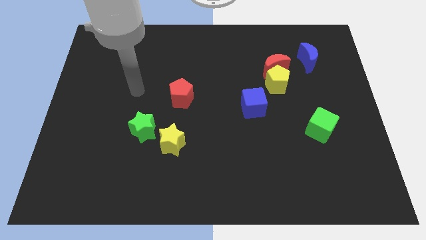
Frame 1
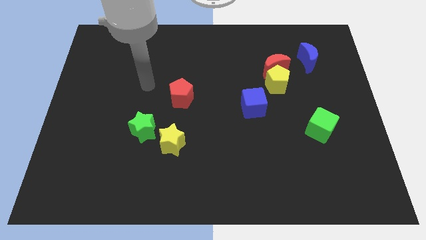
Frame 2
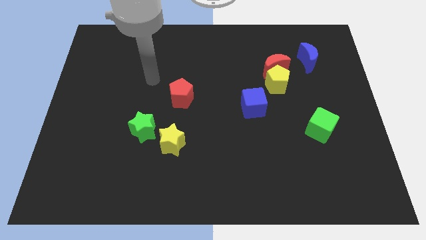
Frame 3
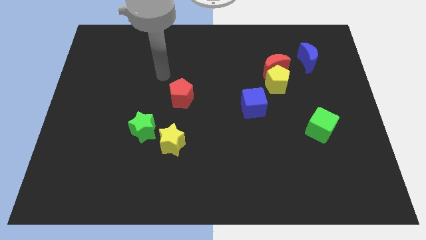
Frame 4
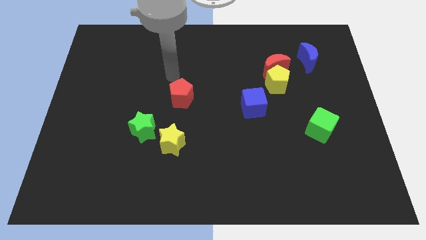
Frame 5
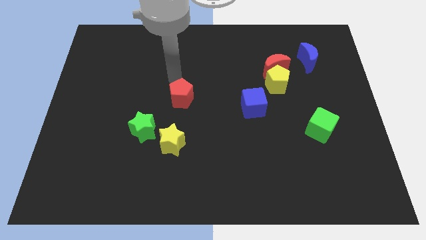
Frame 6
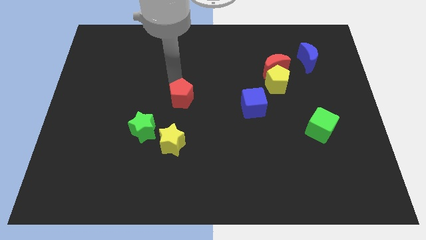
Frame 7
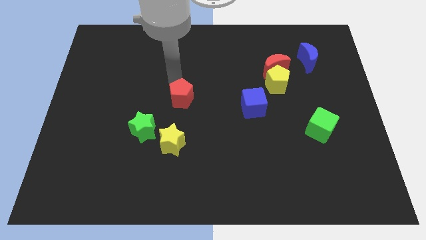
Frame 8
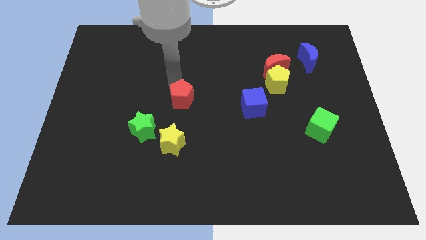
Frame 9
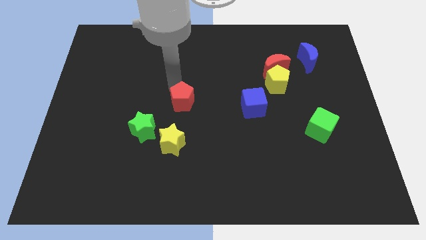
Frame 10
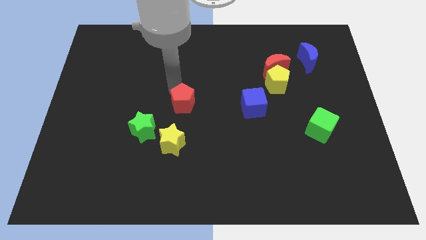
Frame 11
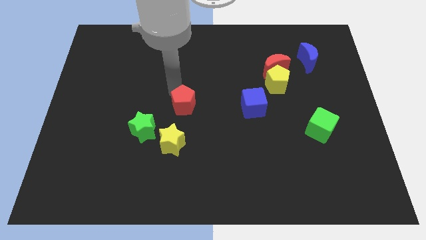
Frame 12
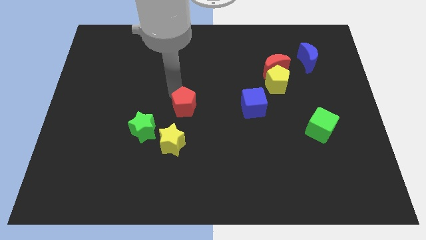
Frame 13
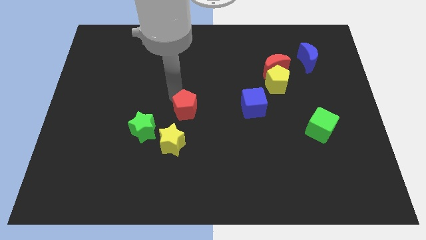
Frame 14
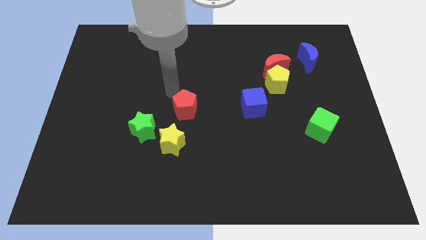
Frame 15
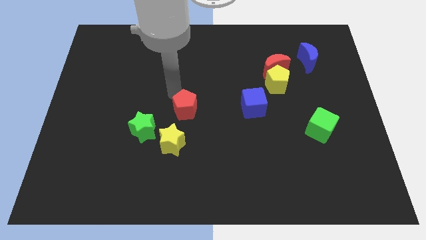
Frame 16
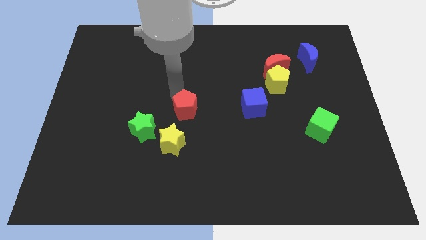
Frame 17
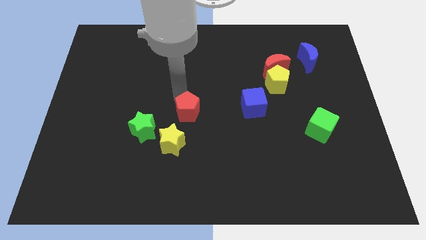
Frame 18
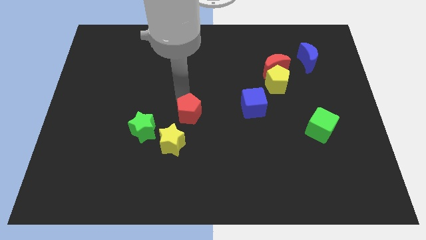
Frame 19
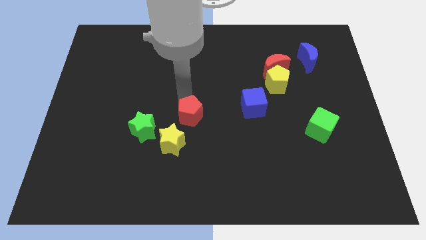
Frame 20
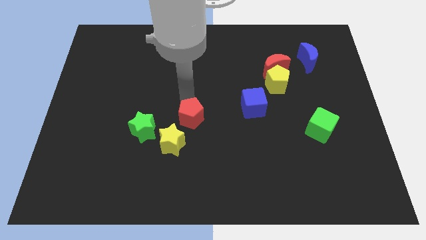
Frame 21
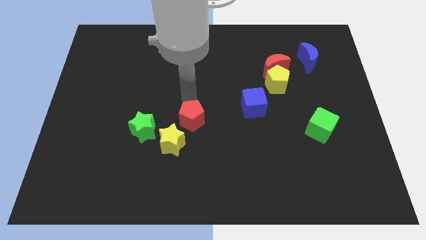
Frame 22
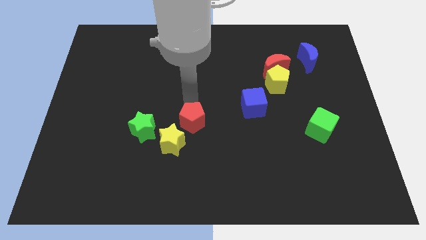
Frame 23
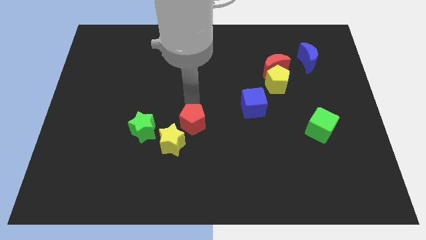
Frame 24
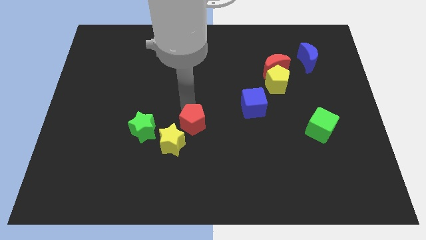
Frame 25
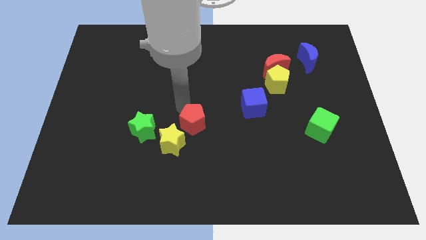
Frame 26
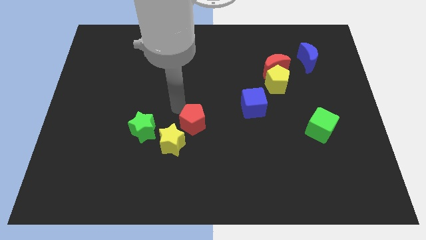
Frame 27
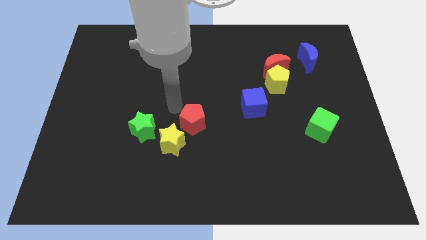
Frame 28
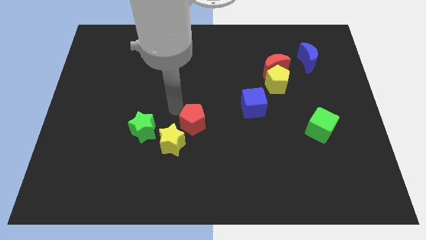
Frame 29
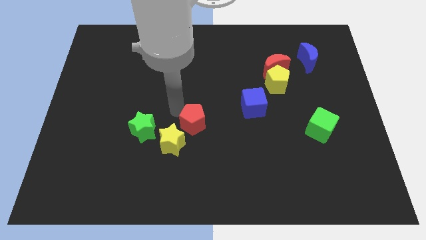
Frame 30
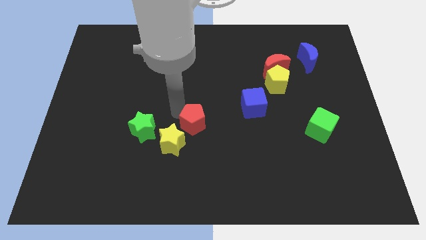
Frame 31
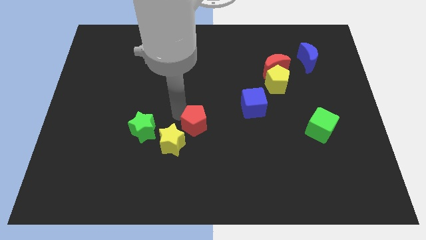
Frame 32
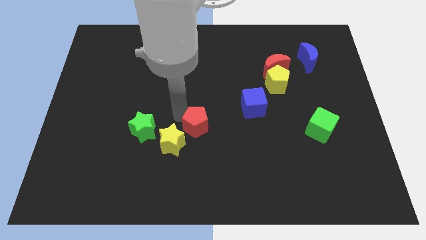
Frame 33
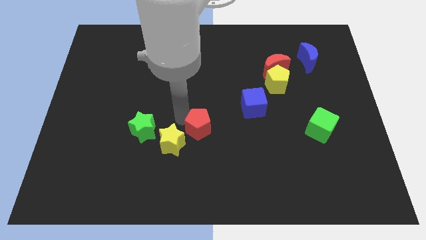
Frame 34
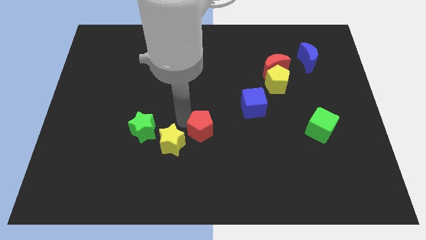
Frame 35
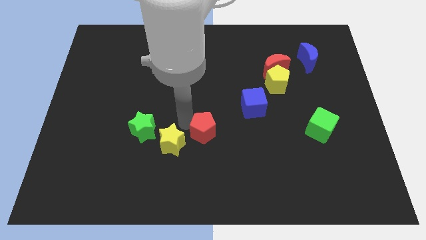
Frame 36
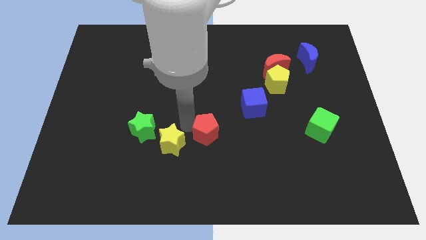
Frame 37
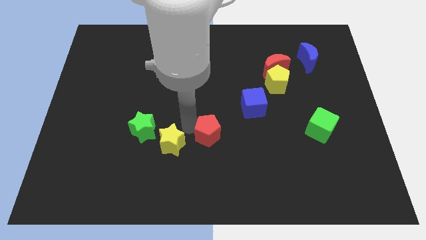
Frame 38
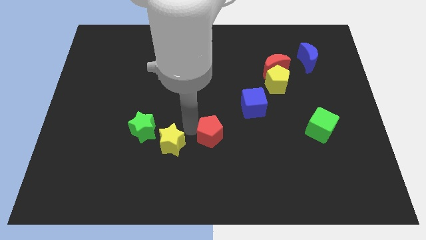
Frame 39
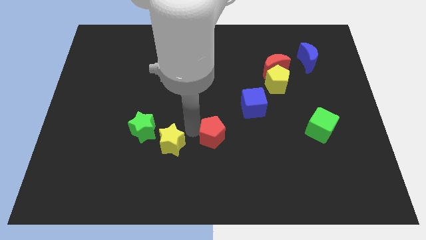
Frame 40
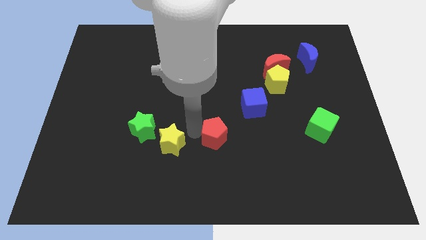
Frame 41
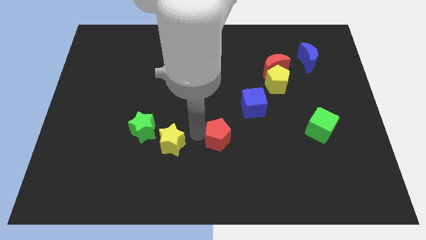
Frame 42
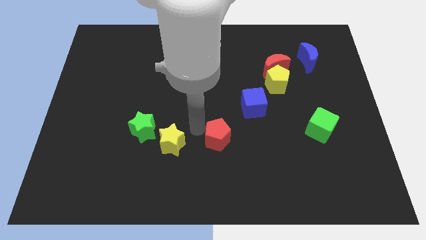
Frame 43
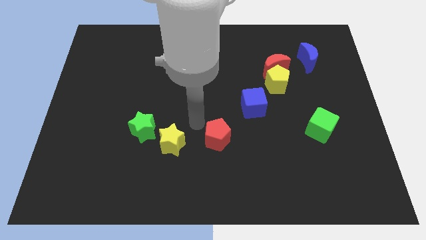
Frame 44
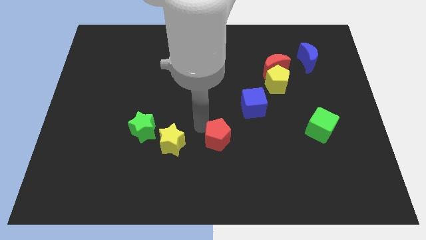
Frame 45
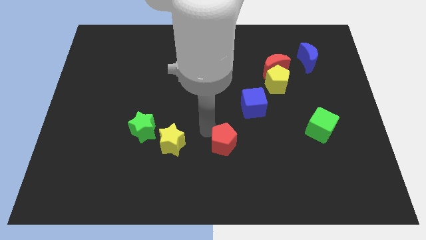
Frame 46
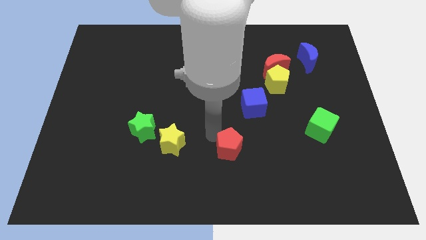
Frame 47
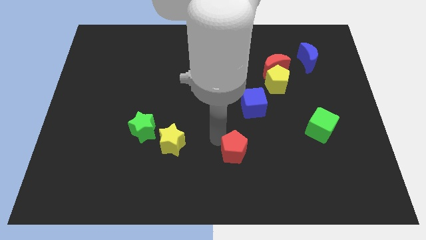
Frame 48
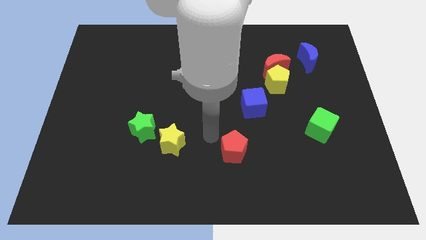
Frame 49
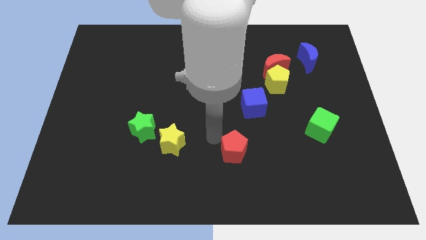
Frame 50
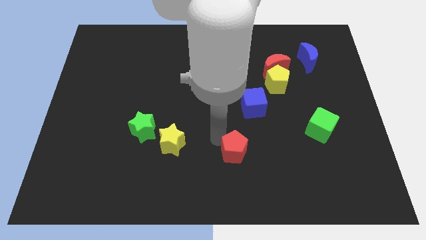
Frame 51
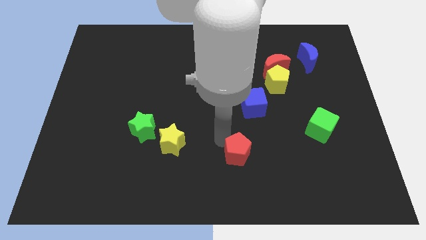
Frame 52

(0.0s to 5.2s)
slide the red pentagon down and right

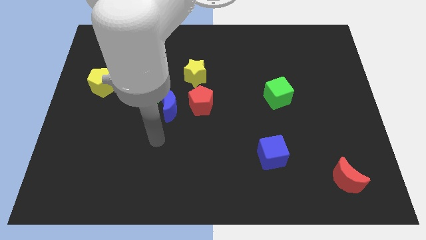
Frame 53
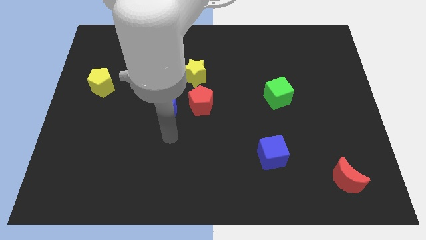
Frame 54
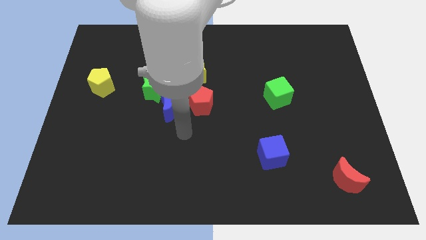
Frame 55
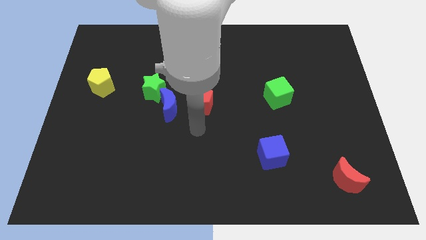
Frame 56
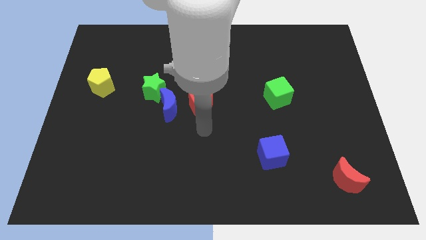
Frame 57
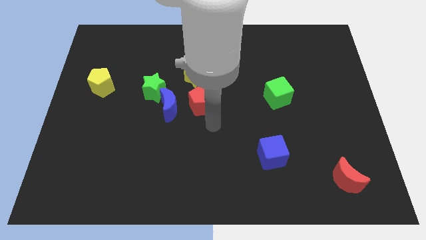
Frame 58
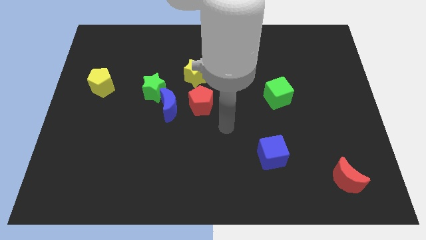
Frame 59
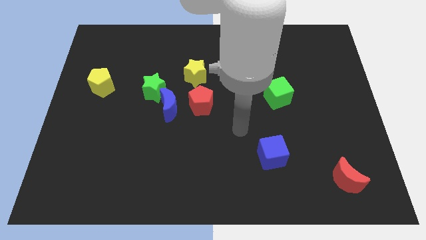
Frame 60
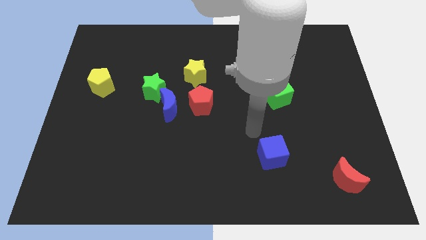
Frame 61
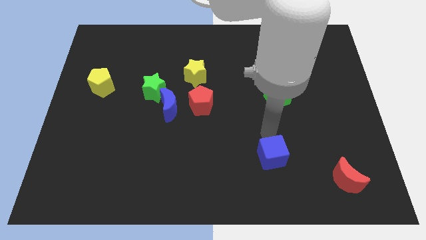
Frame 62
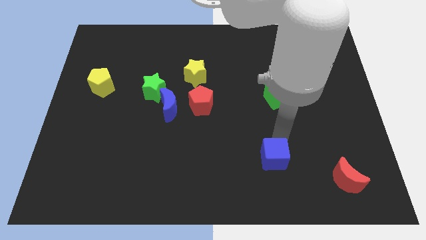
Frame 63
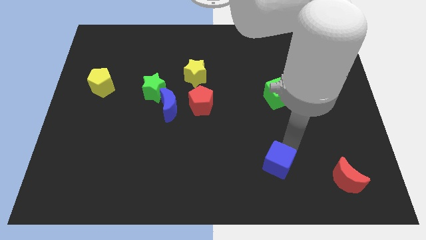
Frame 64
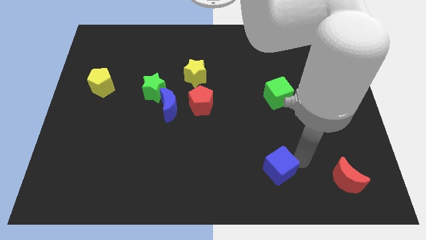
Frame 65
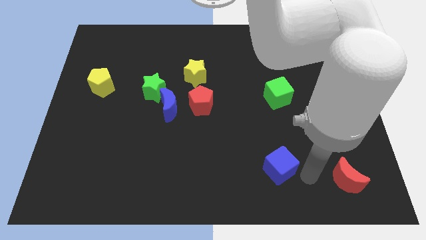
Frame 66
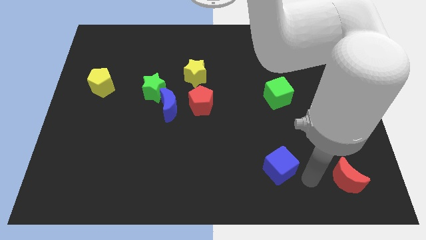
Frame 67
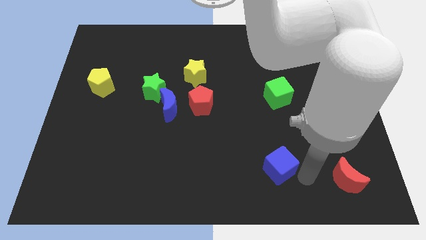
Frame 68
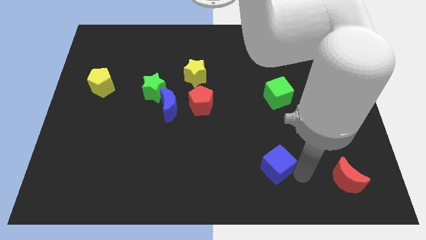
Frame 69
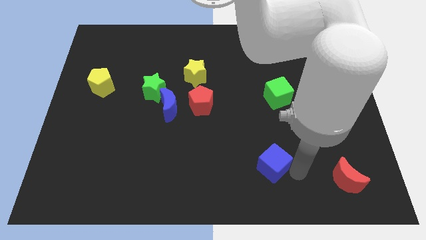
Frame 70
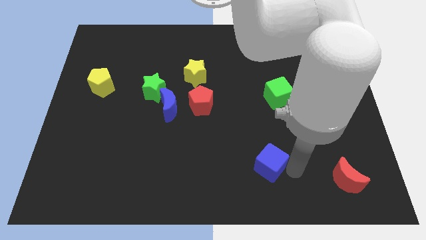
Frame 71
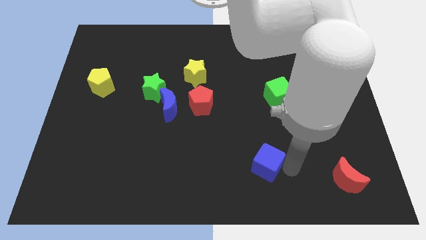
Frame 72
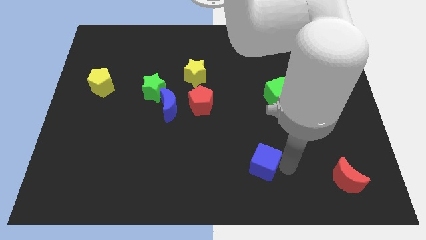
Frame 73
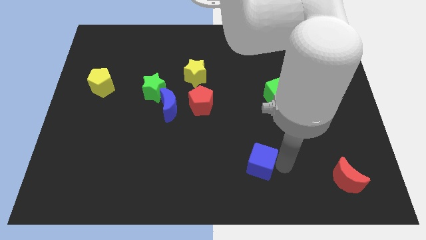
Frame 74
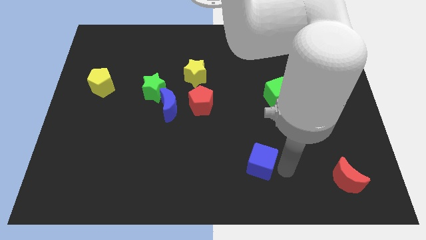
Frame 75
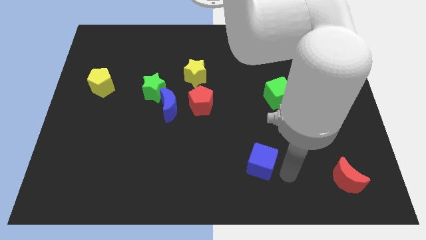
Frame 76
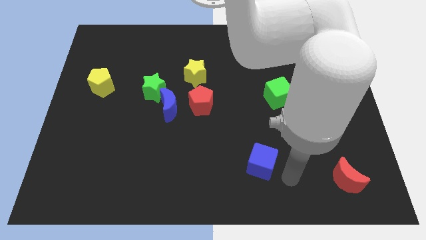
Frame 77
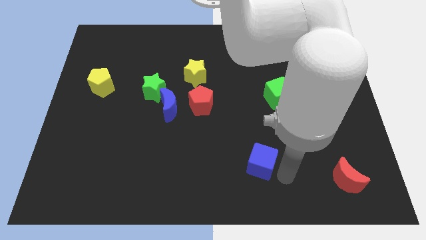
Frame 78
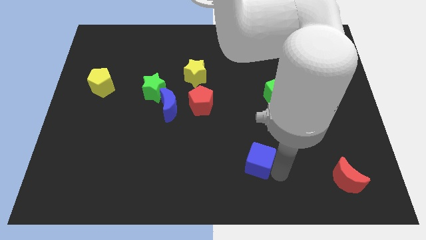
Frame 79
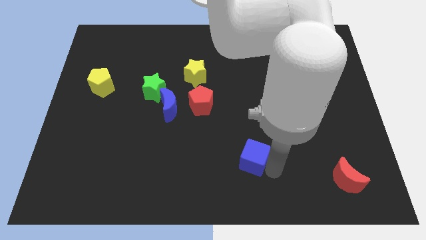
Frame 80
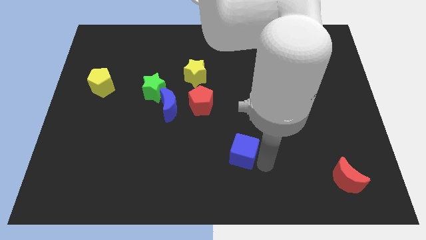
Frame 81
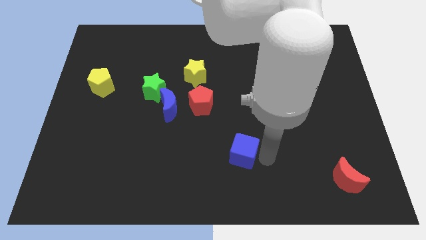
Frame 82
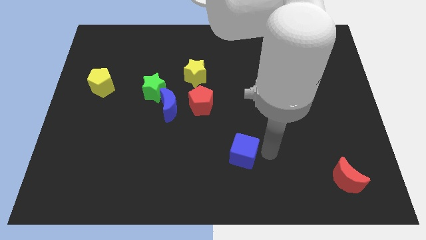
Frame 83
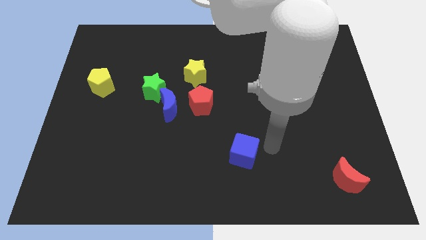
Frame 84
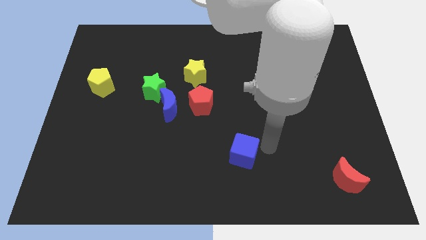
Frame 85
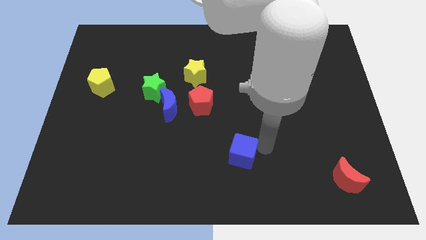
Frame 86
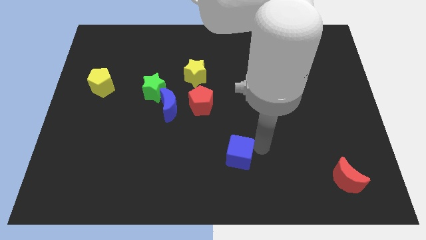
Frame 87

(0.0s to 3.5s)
slightly push the blue cube to the left
